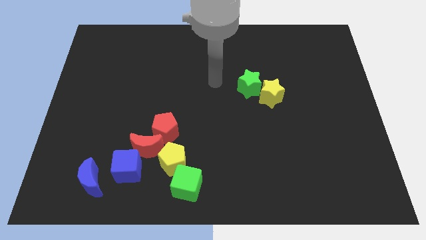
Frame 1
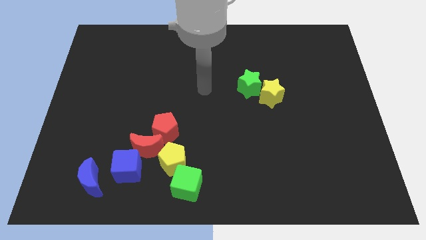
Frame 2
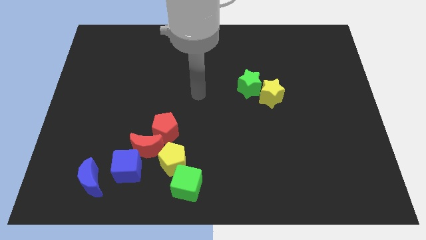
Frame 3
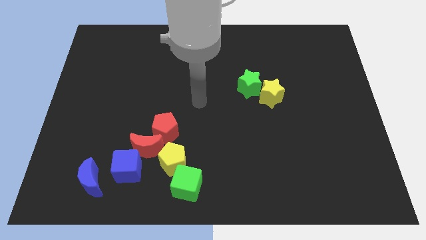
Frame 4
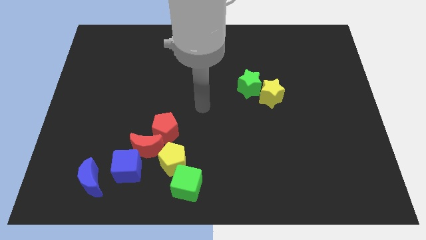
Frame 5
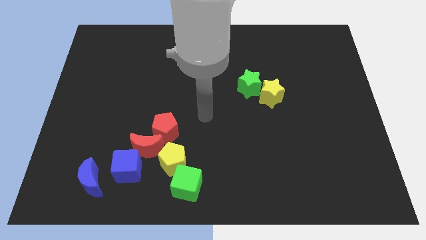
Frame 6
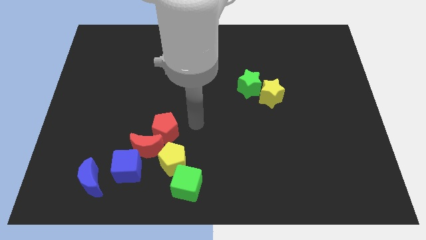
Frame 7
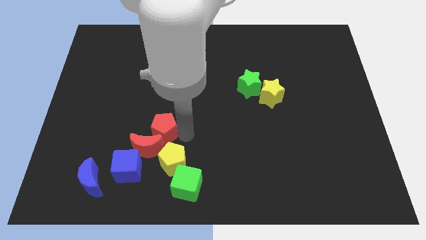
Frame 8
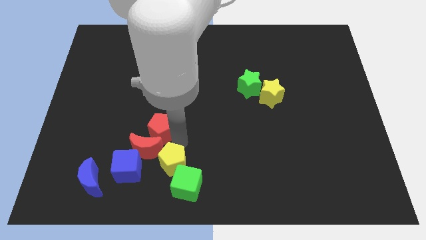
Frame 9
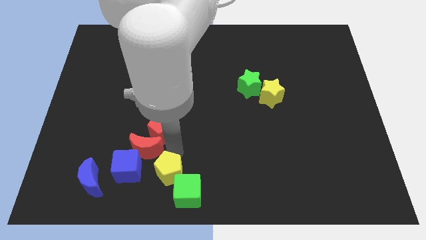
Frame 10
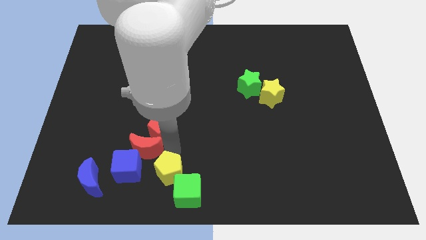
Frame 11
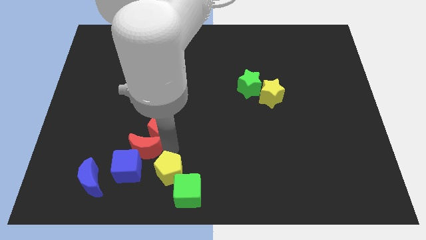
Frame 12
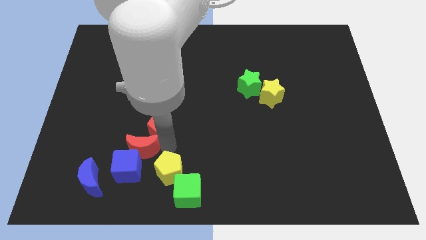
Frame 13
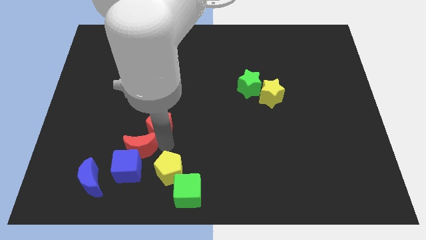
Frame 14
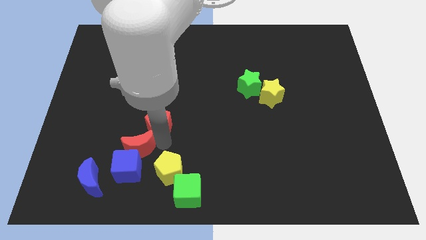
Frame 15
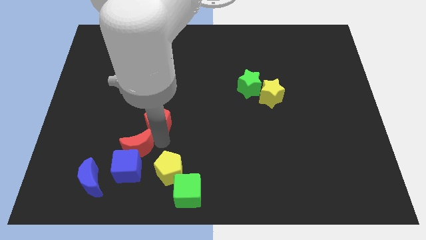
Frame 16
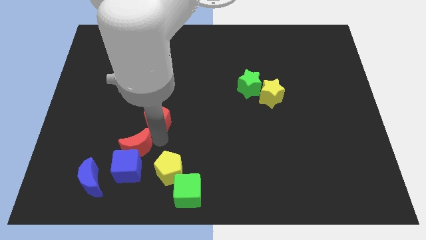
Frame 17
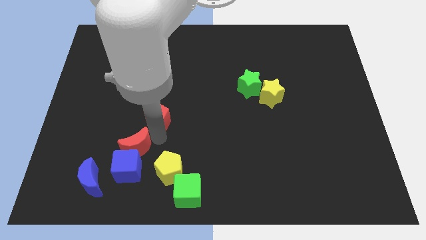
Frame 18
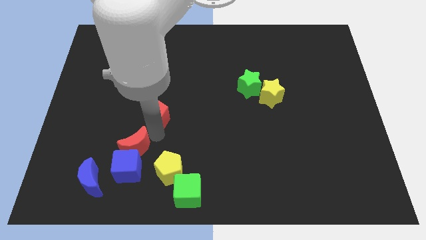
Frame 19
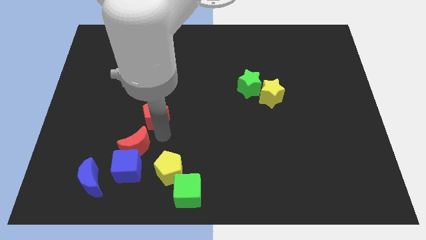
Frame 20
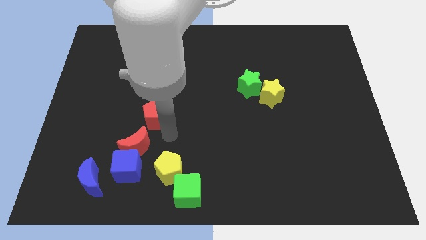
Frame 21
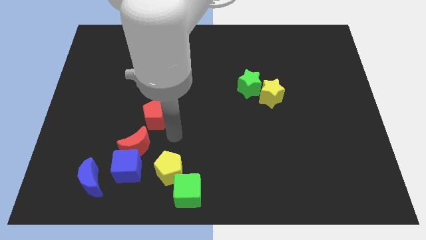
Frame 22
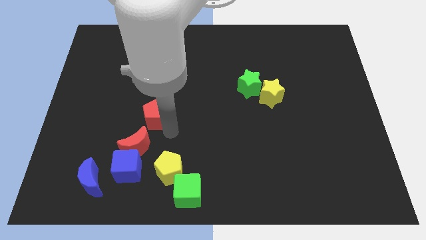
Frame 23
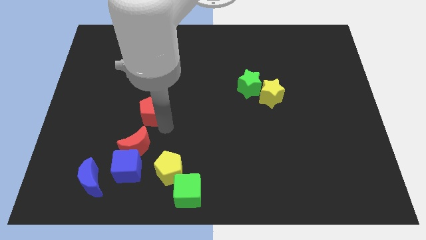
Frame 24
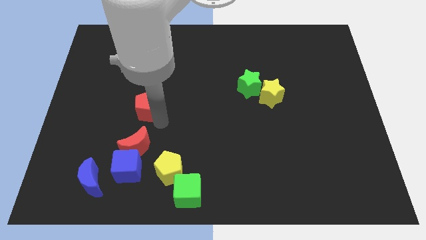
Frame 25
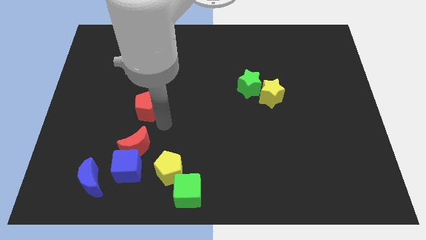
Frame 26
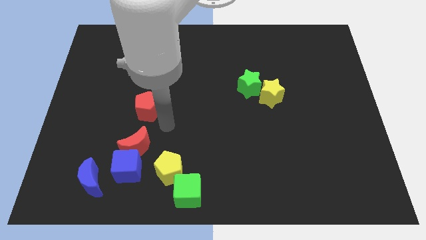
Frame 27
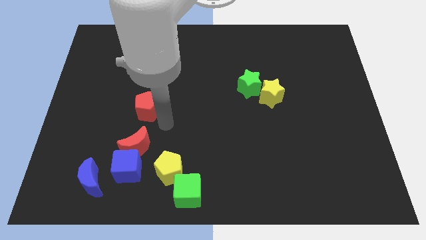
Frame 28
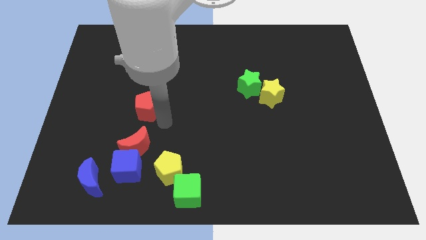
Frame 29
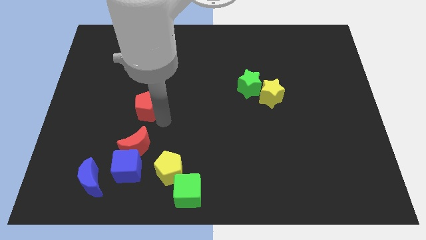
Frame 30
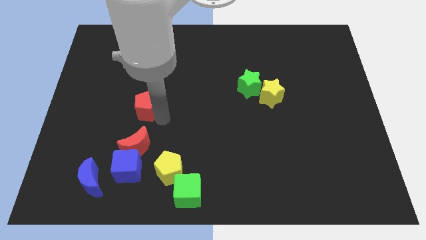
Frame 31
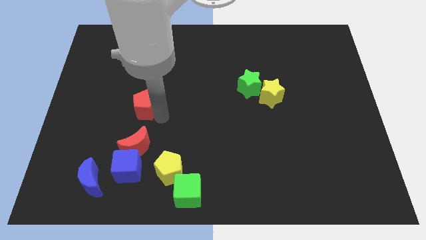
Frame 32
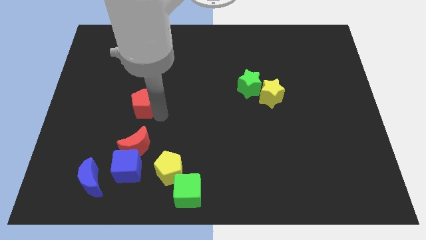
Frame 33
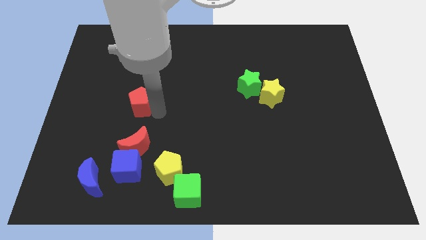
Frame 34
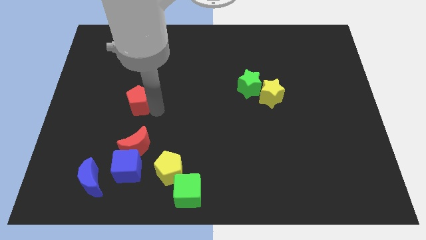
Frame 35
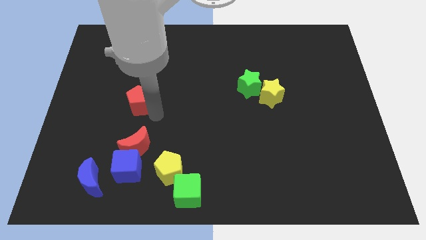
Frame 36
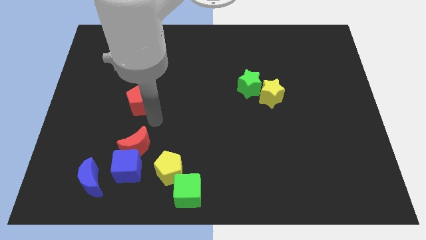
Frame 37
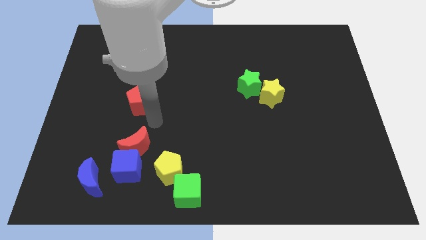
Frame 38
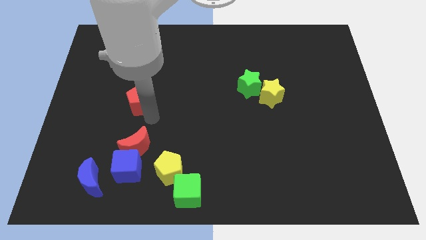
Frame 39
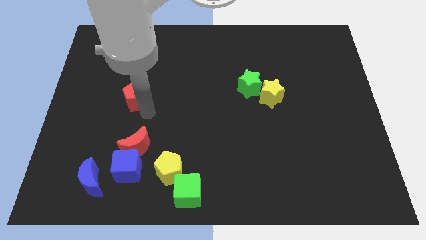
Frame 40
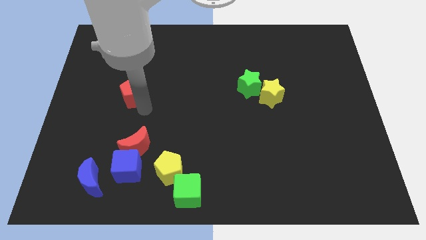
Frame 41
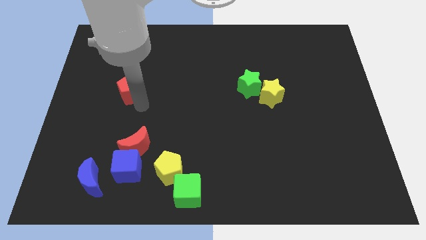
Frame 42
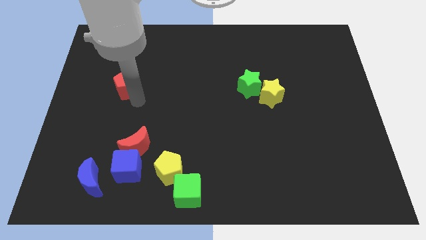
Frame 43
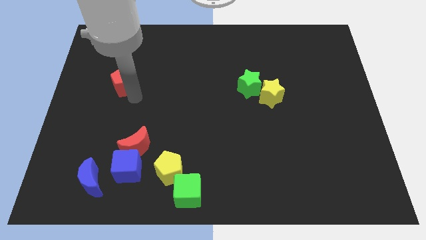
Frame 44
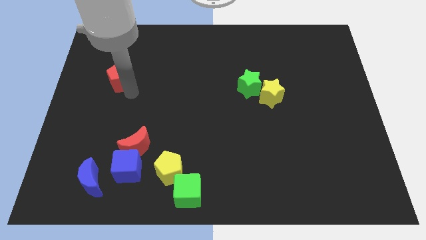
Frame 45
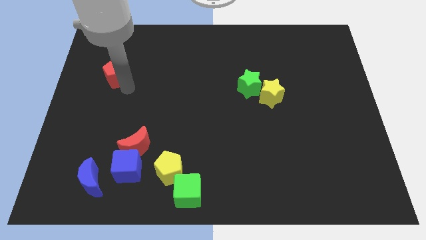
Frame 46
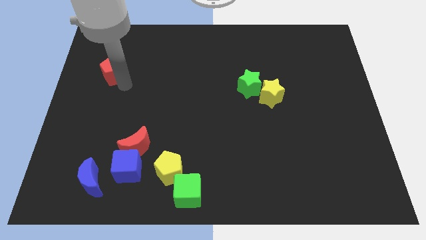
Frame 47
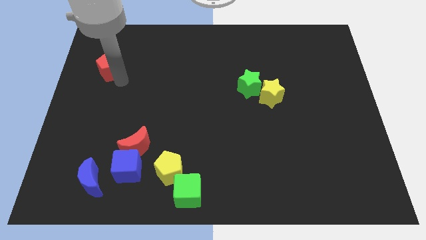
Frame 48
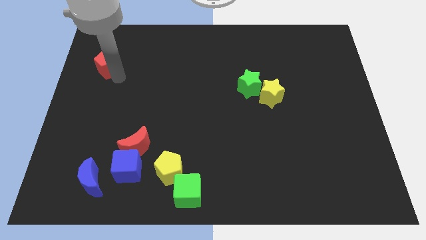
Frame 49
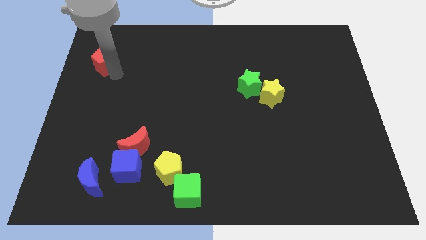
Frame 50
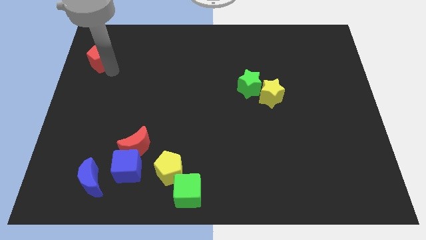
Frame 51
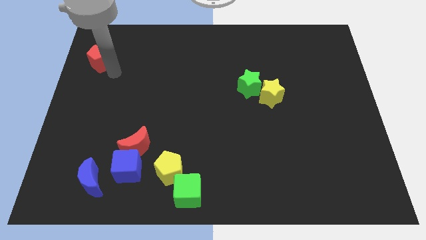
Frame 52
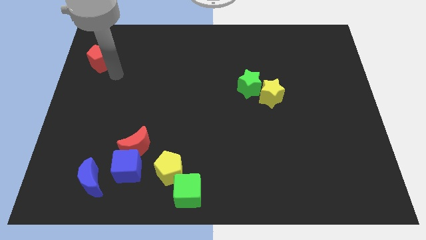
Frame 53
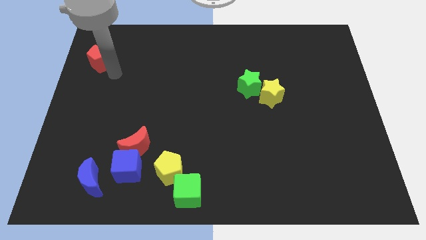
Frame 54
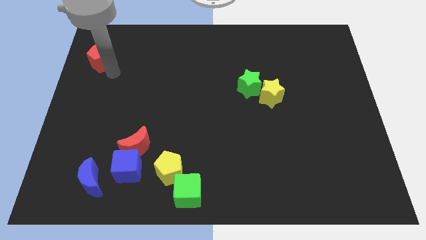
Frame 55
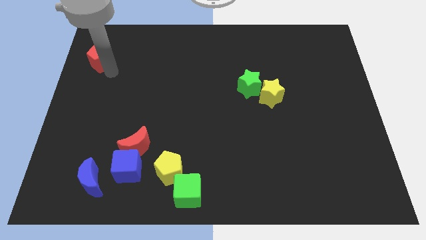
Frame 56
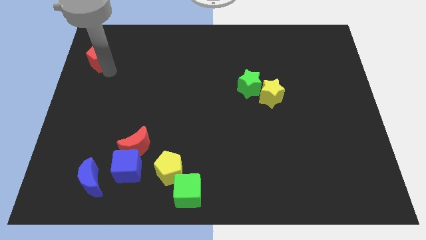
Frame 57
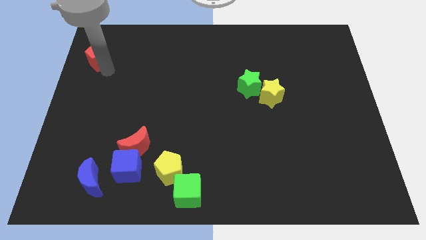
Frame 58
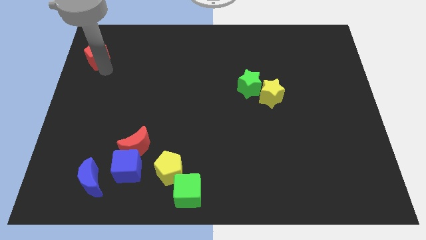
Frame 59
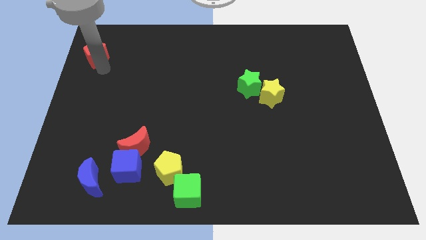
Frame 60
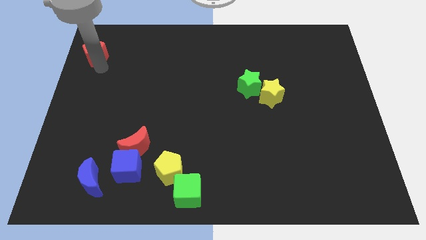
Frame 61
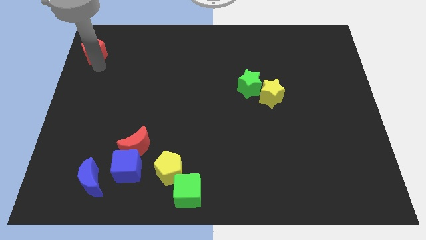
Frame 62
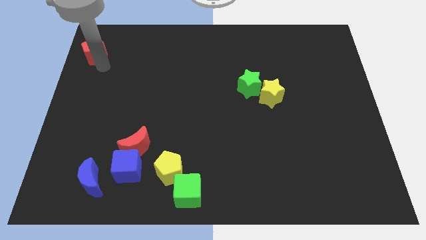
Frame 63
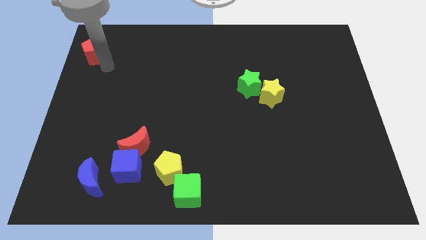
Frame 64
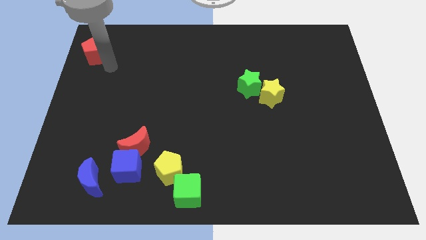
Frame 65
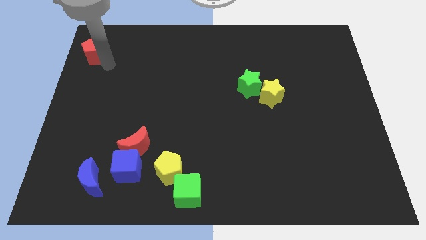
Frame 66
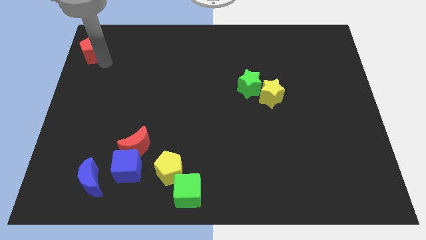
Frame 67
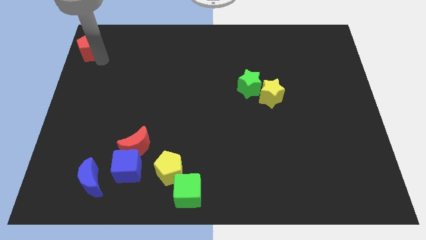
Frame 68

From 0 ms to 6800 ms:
put the red pentagon to the upper left corner

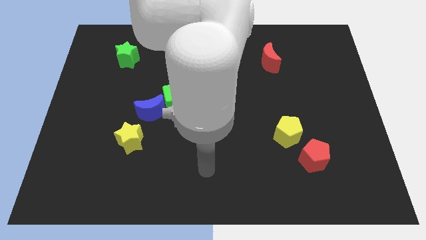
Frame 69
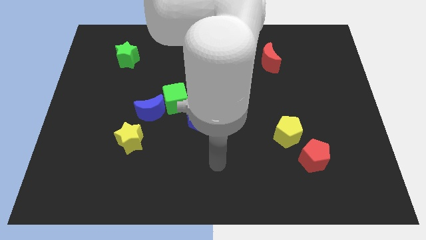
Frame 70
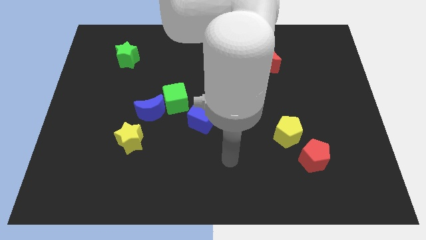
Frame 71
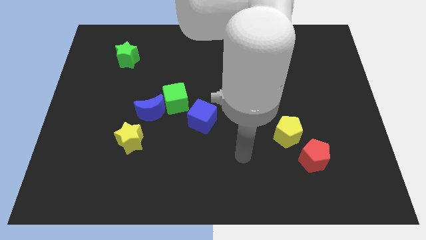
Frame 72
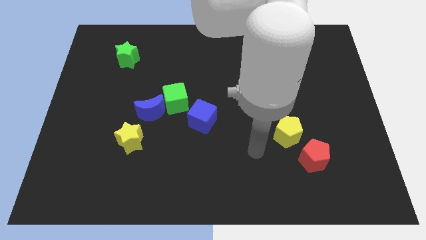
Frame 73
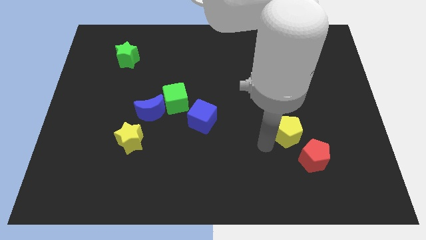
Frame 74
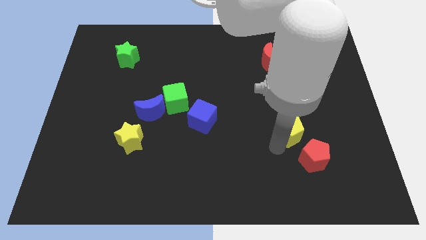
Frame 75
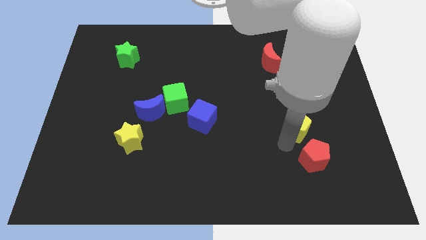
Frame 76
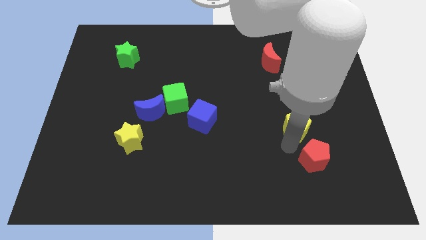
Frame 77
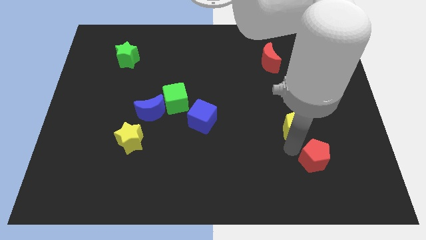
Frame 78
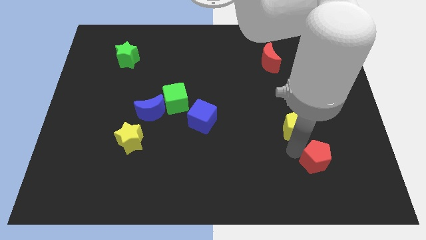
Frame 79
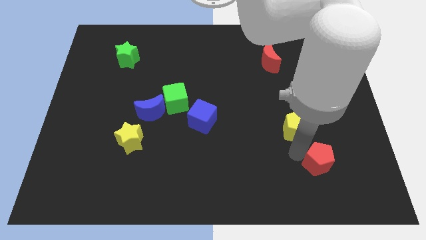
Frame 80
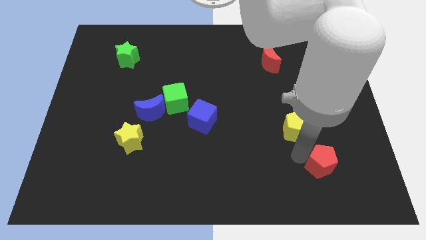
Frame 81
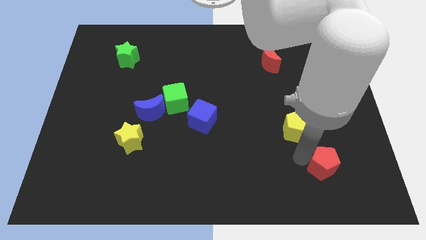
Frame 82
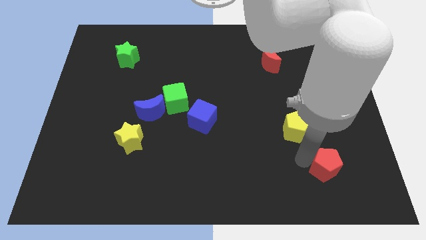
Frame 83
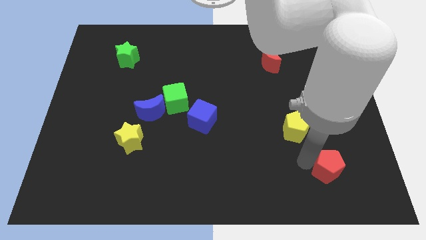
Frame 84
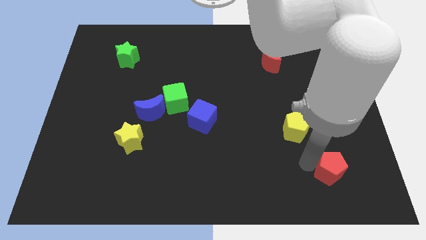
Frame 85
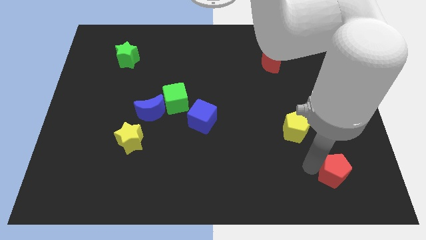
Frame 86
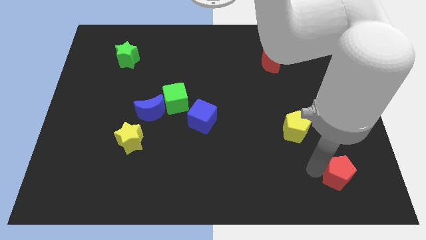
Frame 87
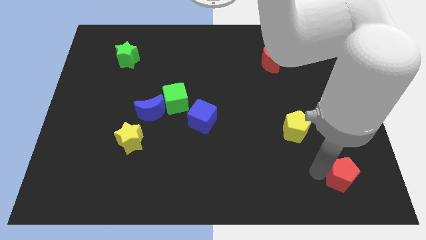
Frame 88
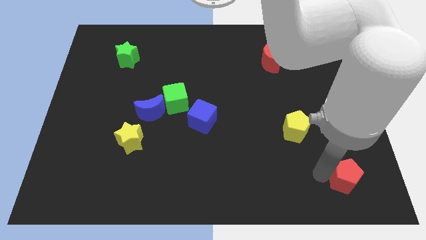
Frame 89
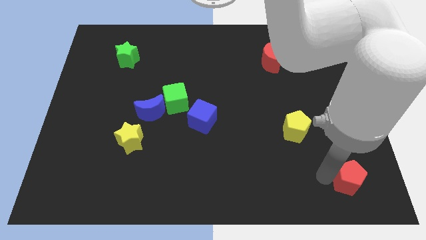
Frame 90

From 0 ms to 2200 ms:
move the red pentagon to the lower right corner
